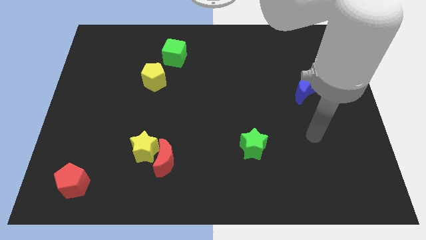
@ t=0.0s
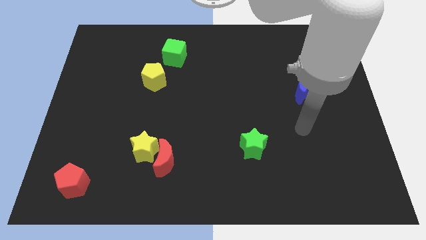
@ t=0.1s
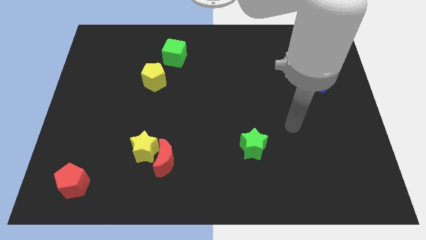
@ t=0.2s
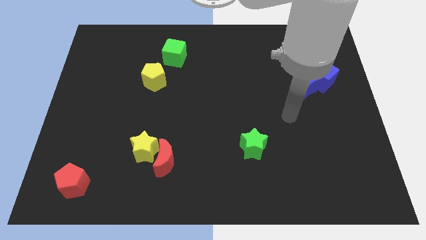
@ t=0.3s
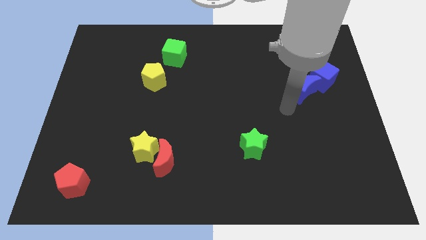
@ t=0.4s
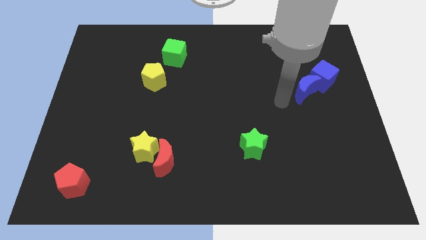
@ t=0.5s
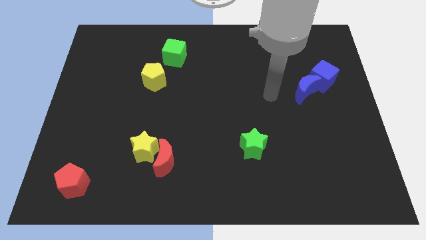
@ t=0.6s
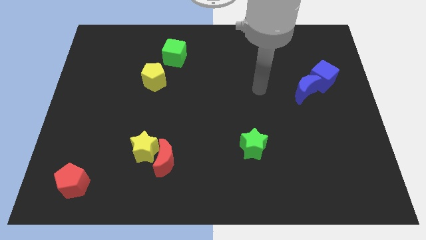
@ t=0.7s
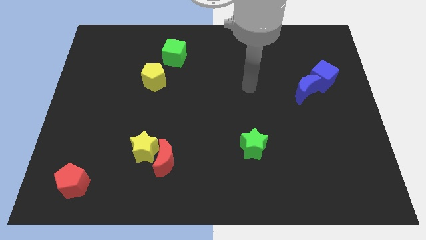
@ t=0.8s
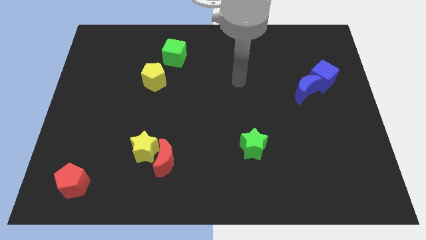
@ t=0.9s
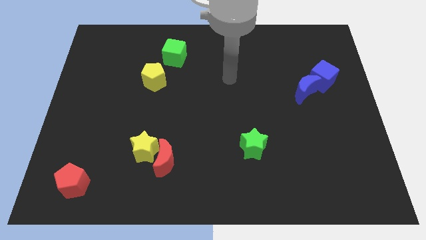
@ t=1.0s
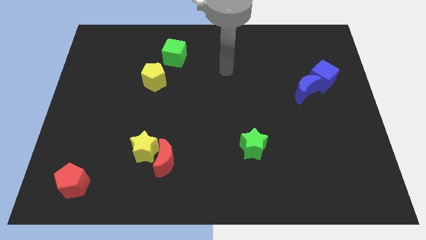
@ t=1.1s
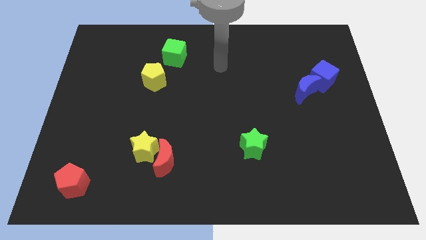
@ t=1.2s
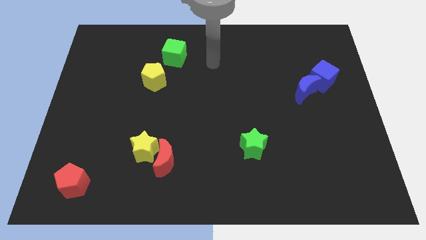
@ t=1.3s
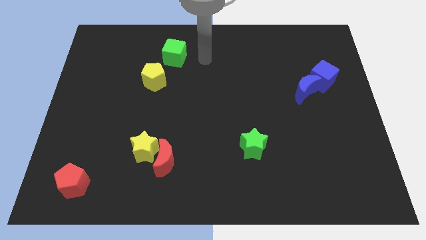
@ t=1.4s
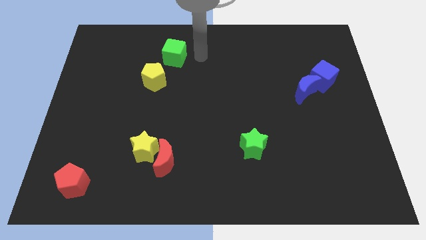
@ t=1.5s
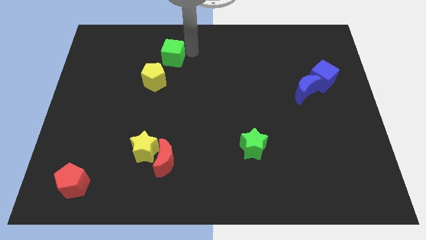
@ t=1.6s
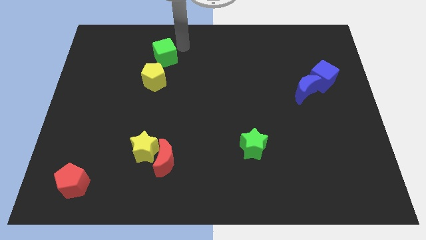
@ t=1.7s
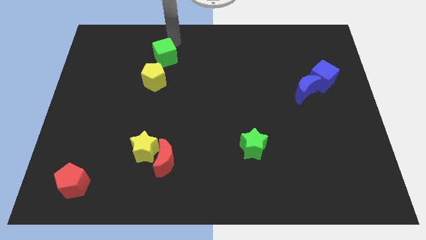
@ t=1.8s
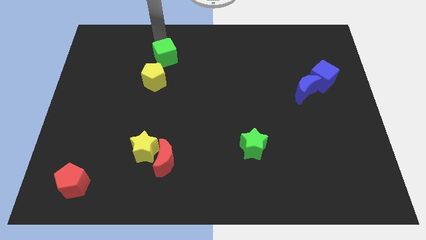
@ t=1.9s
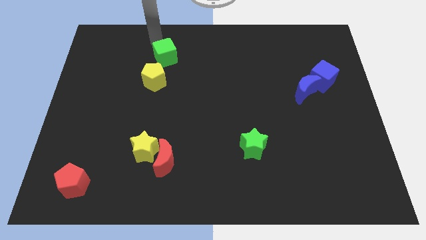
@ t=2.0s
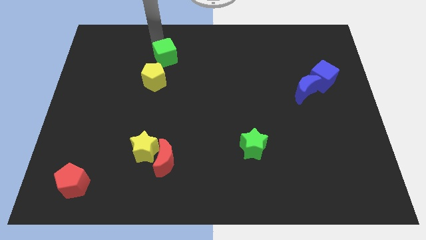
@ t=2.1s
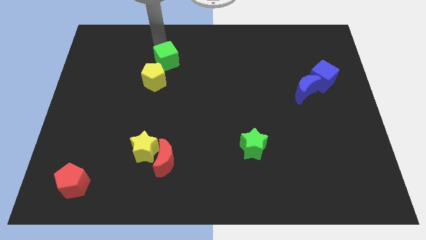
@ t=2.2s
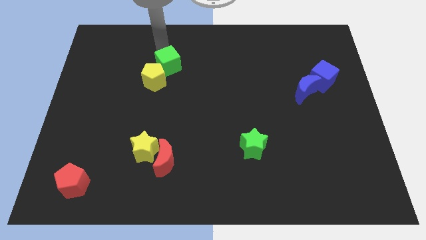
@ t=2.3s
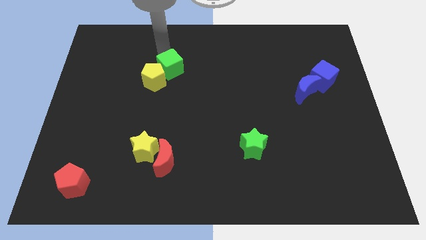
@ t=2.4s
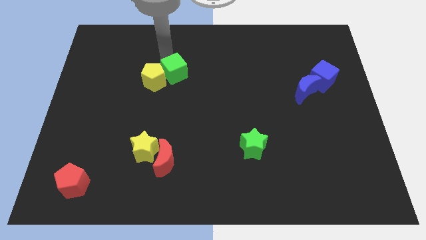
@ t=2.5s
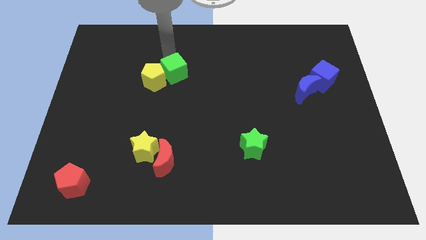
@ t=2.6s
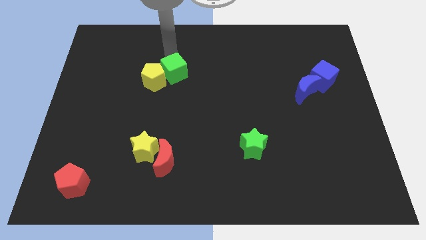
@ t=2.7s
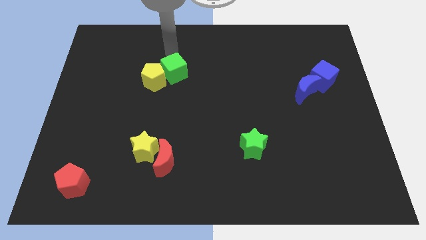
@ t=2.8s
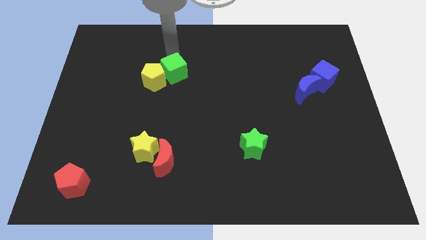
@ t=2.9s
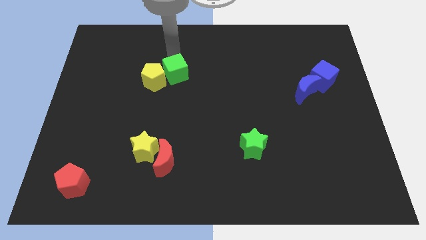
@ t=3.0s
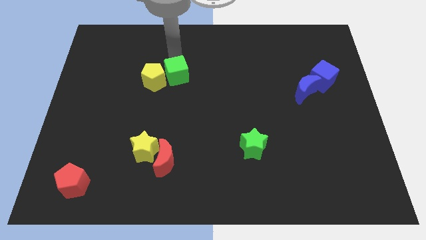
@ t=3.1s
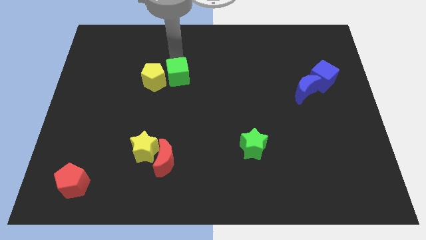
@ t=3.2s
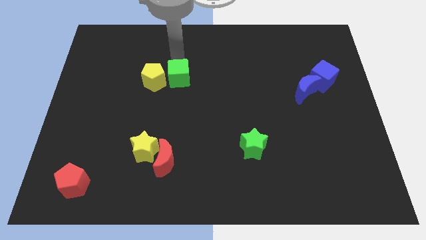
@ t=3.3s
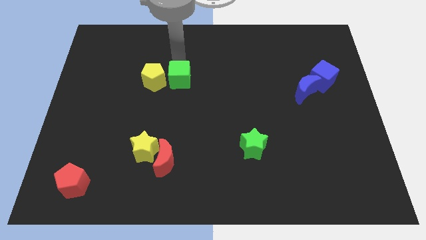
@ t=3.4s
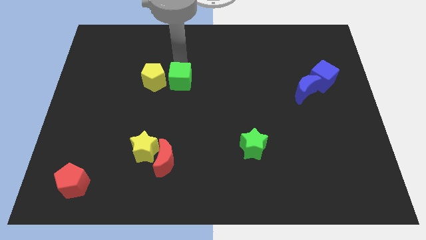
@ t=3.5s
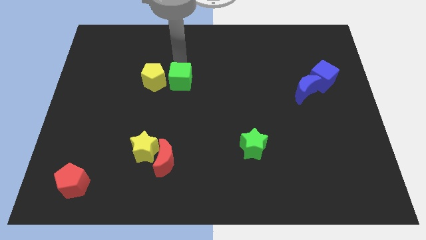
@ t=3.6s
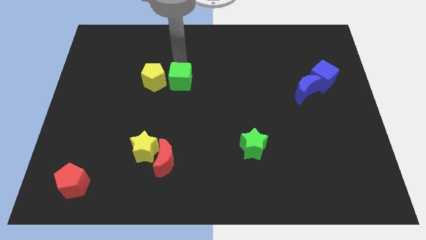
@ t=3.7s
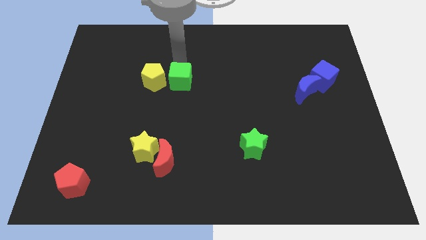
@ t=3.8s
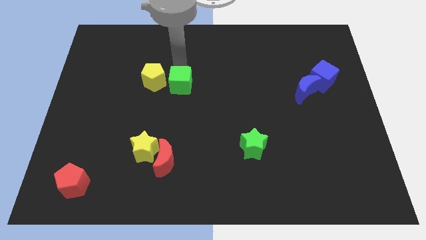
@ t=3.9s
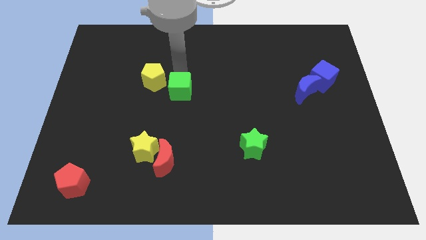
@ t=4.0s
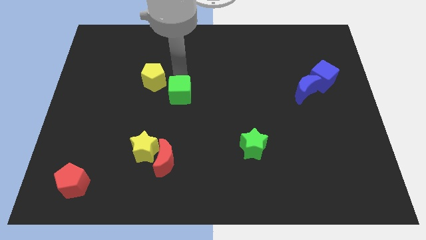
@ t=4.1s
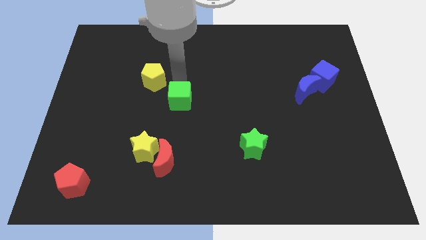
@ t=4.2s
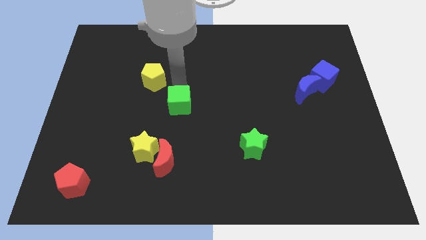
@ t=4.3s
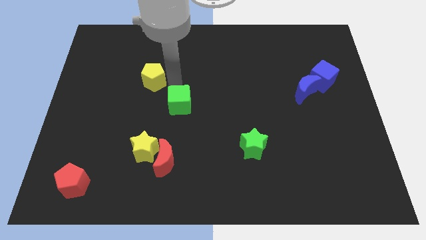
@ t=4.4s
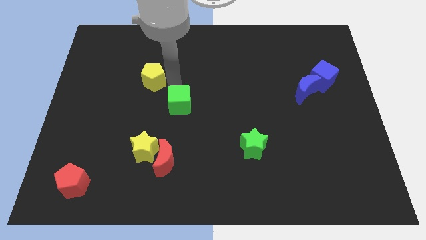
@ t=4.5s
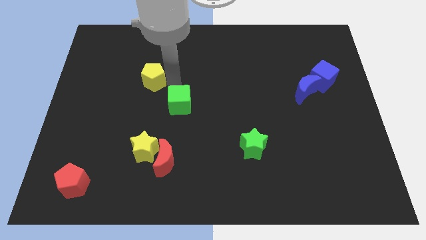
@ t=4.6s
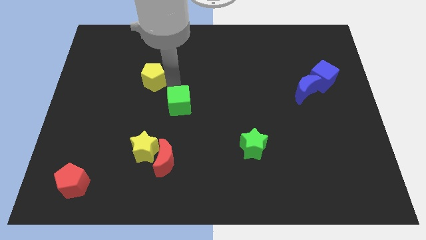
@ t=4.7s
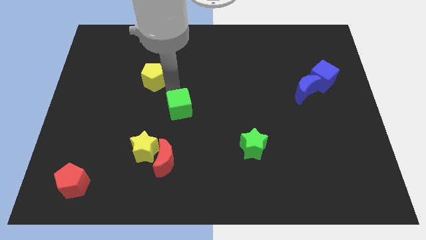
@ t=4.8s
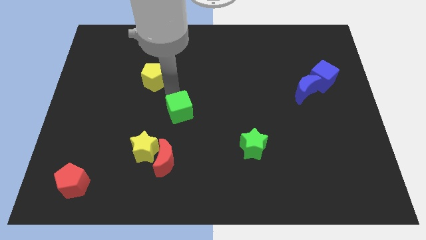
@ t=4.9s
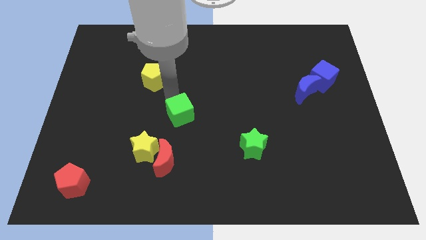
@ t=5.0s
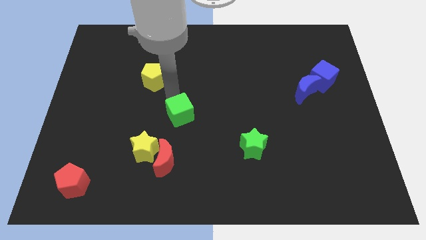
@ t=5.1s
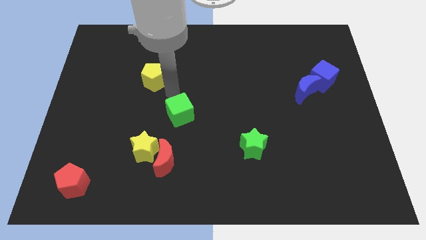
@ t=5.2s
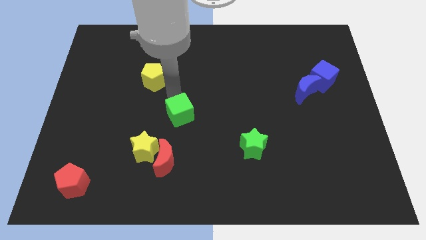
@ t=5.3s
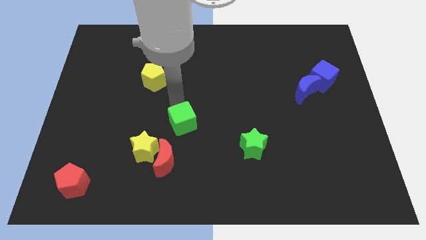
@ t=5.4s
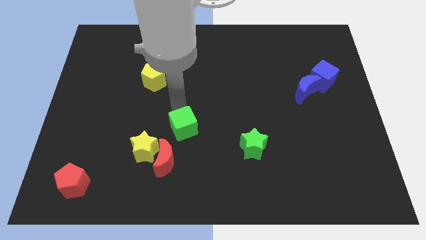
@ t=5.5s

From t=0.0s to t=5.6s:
put the green cube to the top right of the red moon
